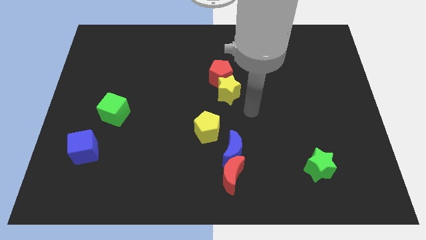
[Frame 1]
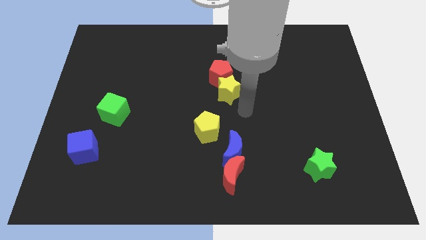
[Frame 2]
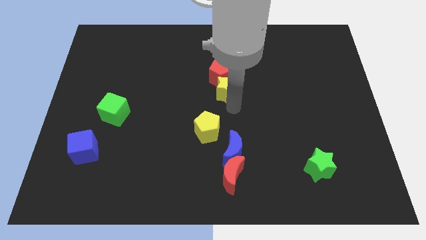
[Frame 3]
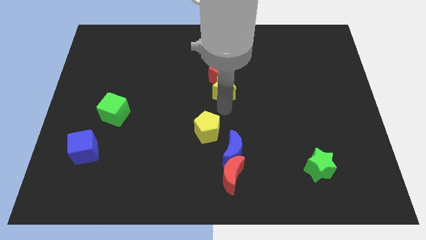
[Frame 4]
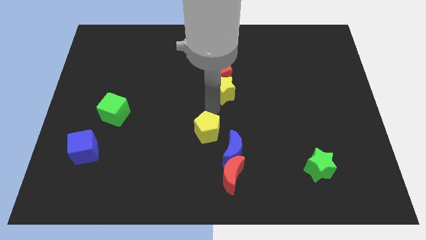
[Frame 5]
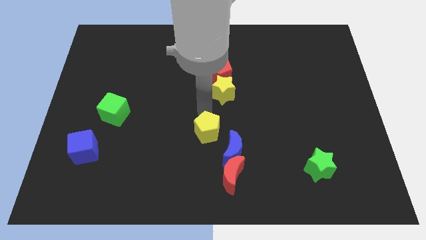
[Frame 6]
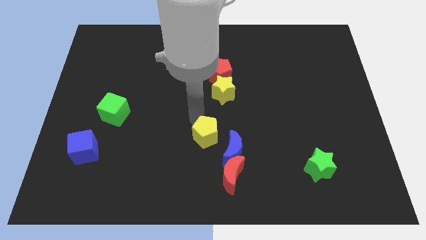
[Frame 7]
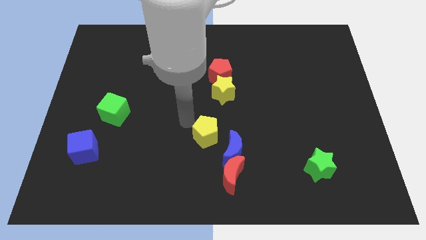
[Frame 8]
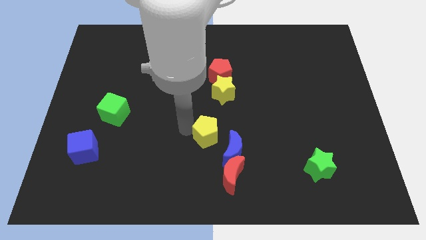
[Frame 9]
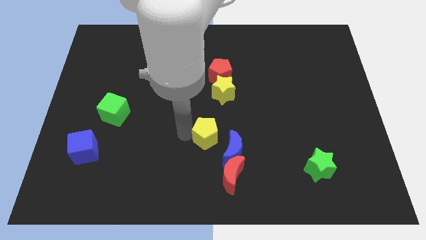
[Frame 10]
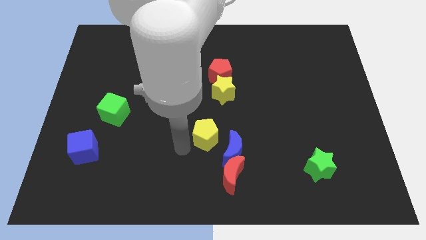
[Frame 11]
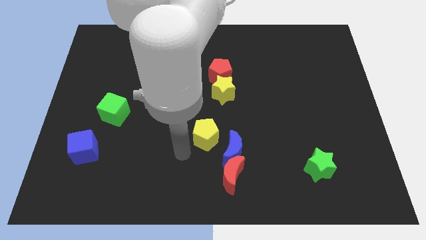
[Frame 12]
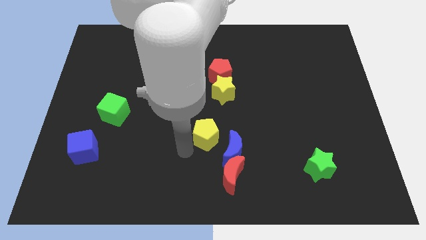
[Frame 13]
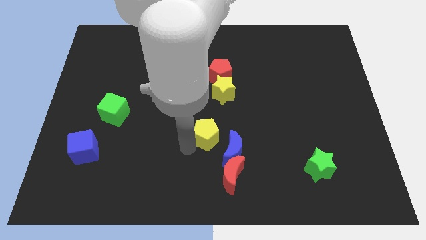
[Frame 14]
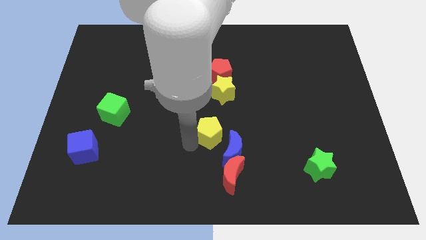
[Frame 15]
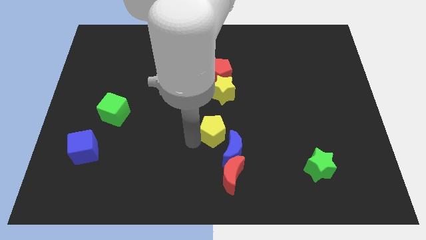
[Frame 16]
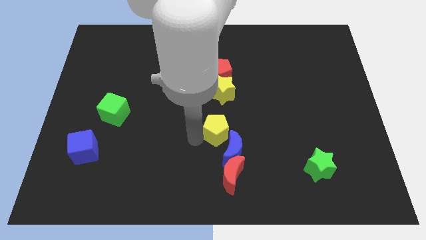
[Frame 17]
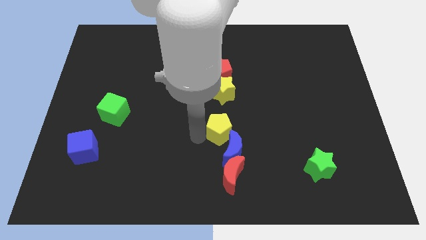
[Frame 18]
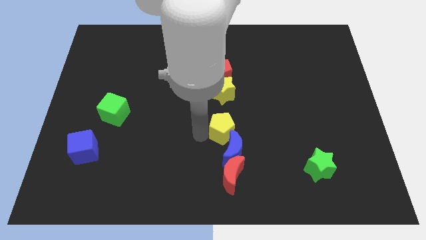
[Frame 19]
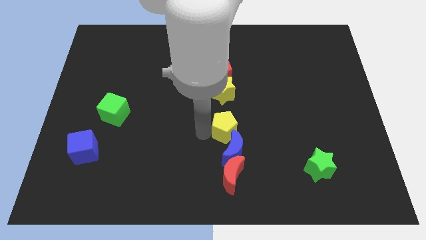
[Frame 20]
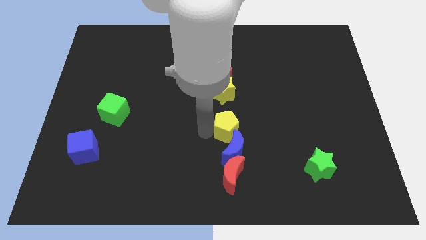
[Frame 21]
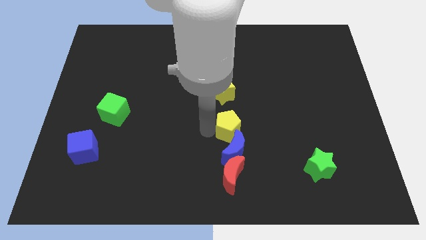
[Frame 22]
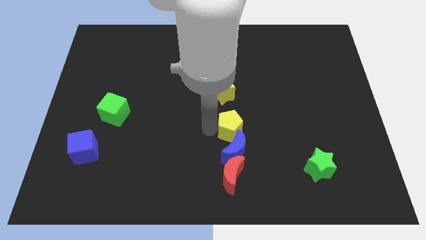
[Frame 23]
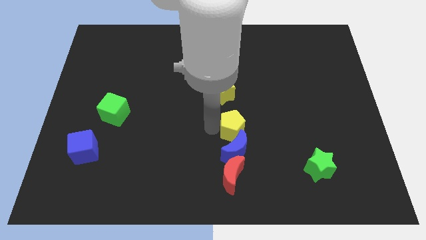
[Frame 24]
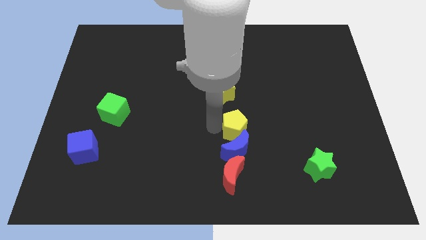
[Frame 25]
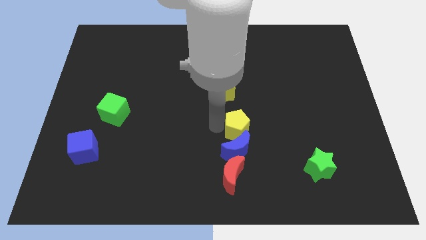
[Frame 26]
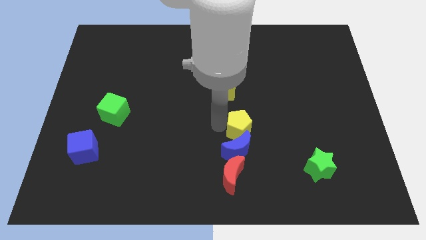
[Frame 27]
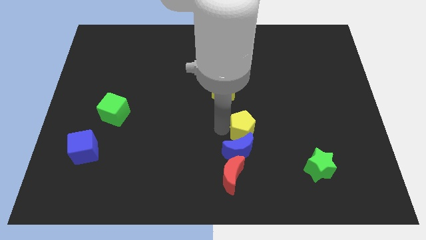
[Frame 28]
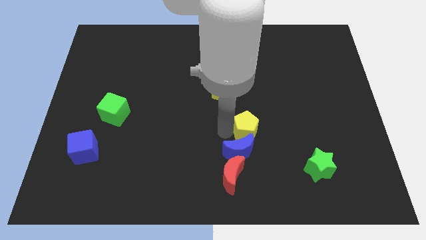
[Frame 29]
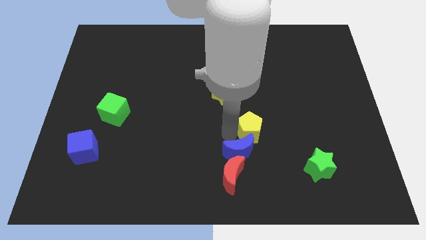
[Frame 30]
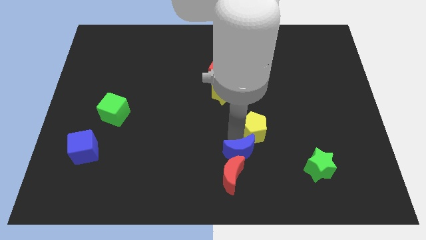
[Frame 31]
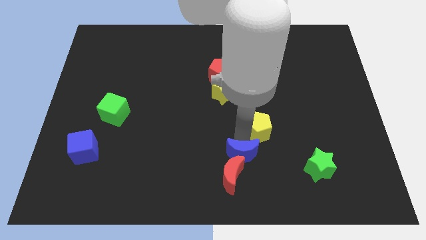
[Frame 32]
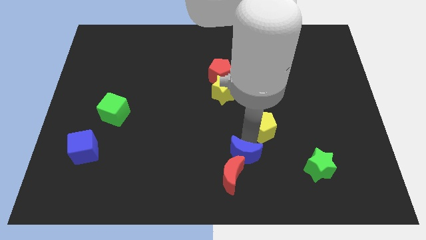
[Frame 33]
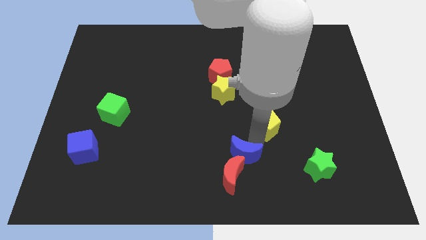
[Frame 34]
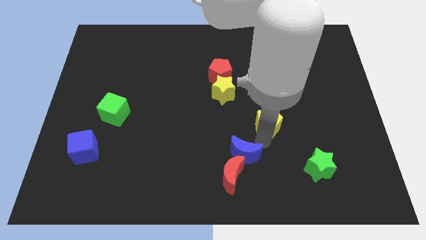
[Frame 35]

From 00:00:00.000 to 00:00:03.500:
push the yellow pentagon up and right diagonally somewhat

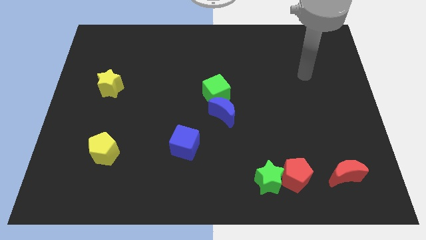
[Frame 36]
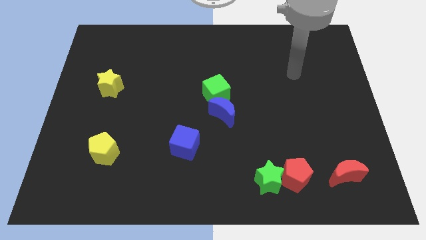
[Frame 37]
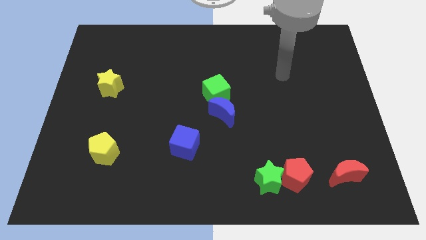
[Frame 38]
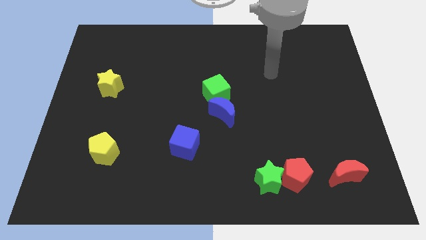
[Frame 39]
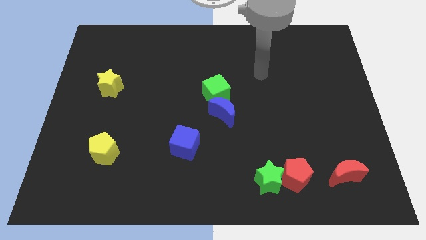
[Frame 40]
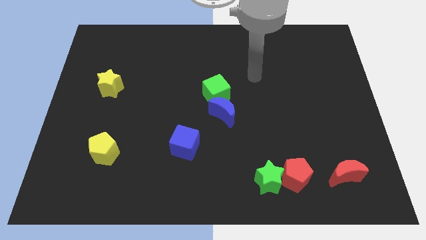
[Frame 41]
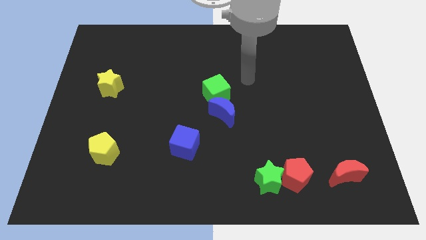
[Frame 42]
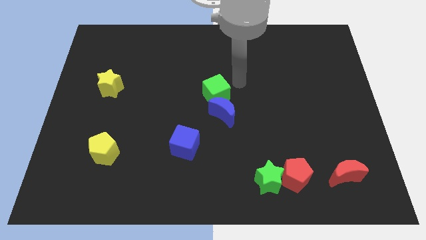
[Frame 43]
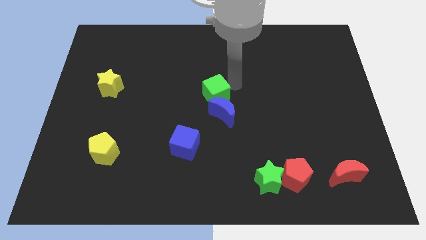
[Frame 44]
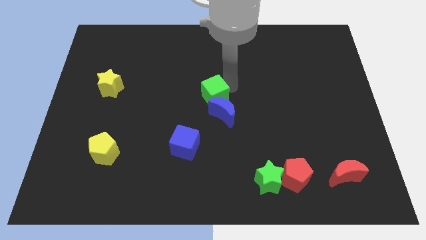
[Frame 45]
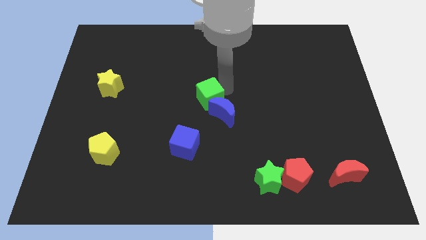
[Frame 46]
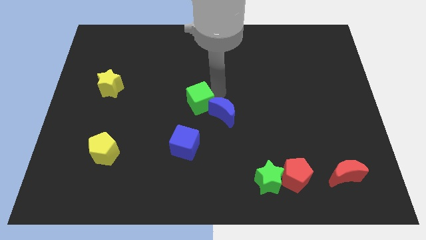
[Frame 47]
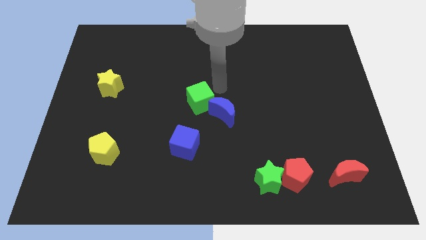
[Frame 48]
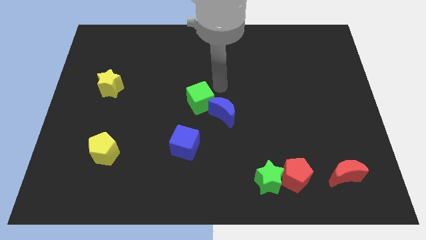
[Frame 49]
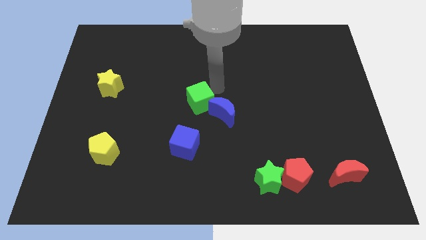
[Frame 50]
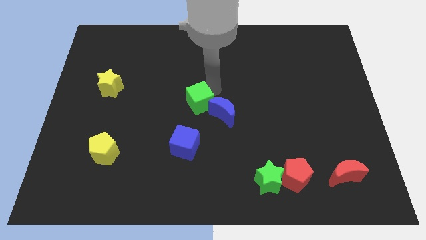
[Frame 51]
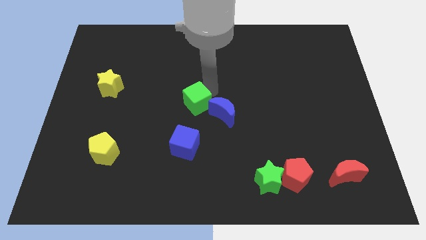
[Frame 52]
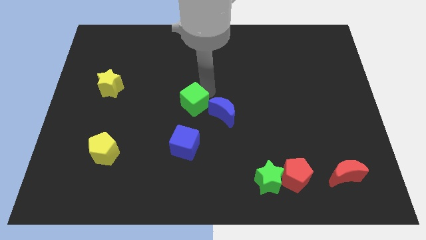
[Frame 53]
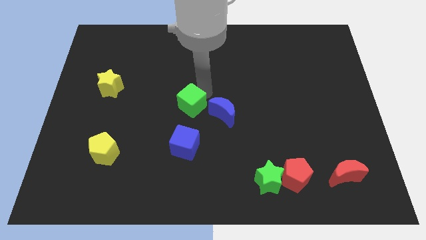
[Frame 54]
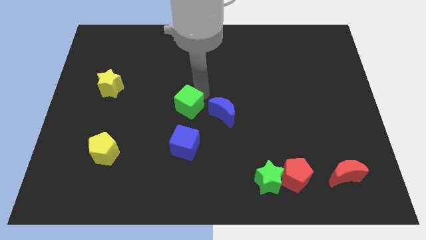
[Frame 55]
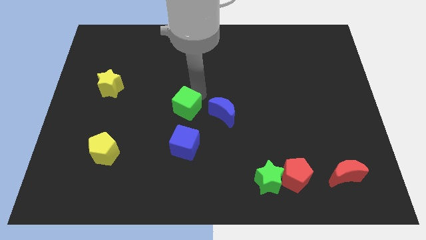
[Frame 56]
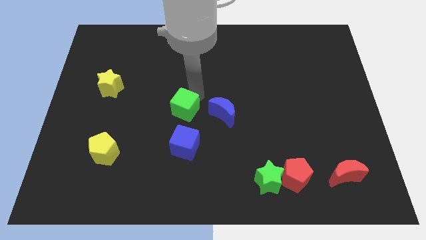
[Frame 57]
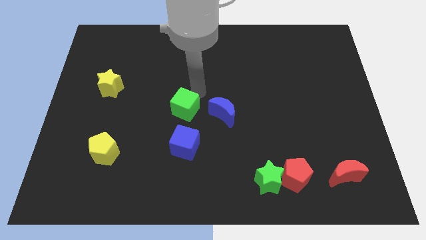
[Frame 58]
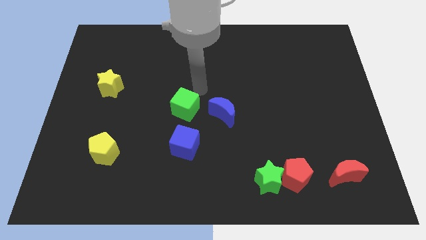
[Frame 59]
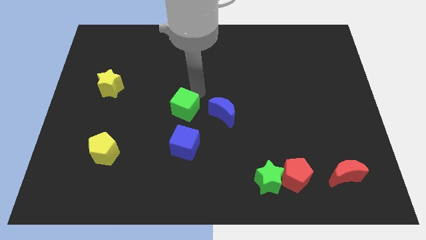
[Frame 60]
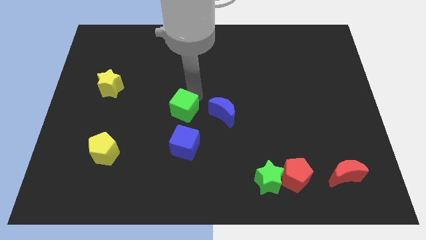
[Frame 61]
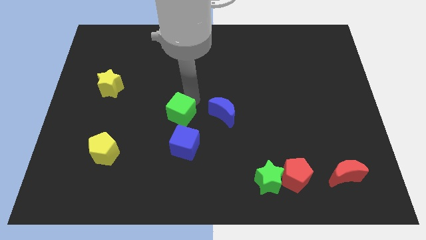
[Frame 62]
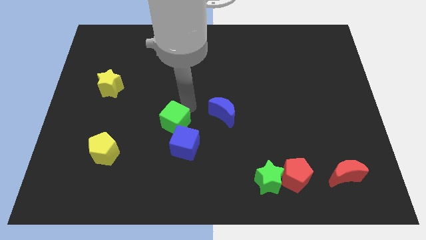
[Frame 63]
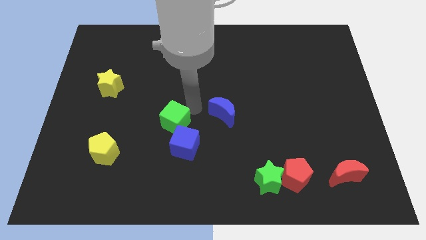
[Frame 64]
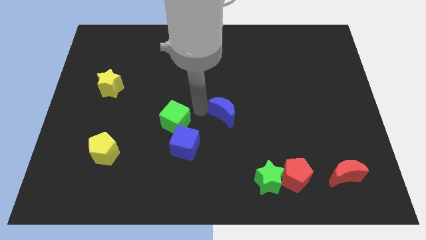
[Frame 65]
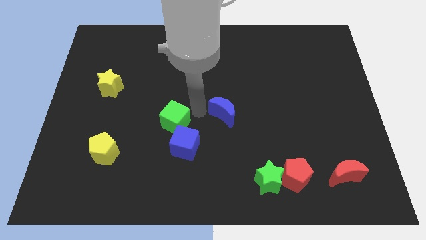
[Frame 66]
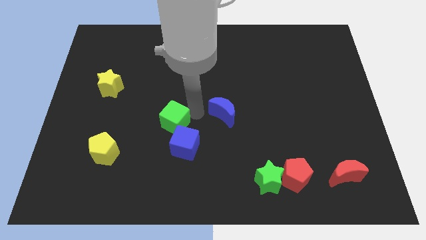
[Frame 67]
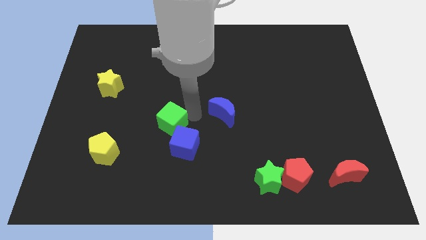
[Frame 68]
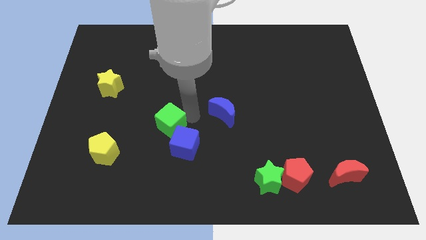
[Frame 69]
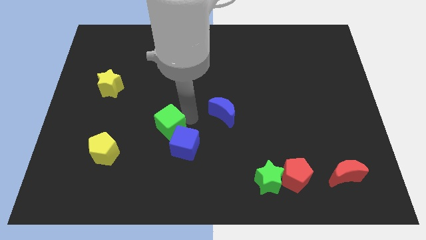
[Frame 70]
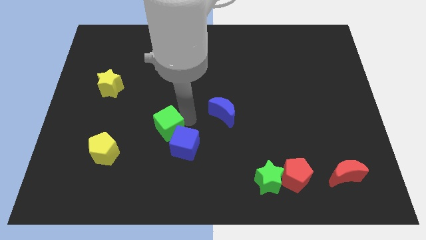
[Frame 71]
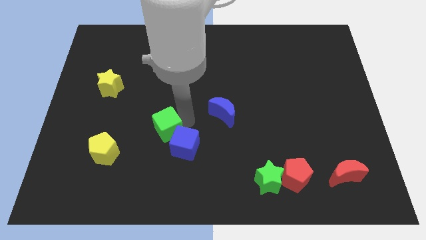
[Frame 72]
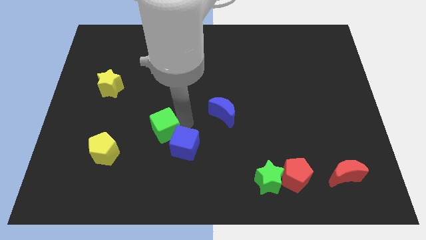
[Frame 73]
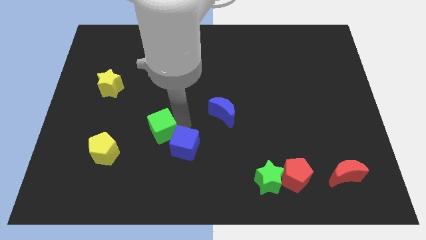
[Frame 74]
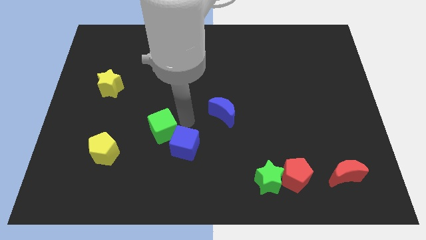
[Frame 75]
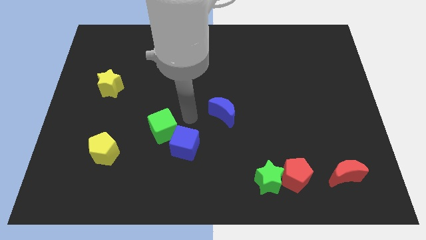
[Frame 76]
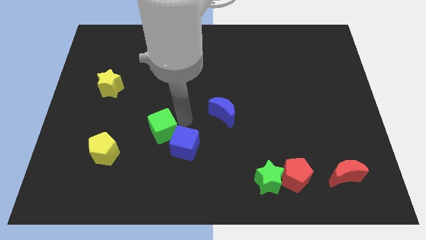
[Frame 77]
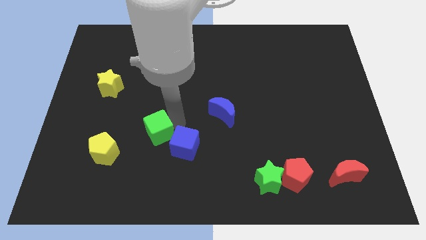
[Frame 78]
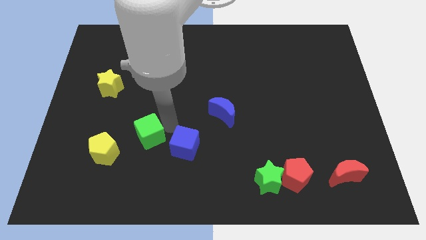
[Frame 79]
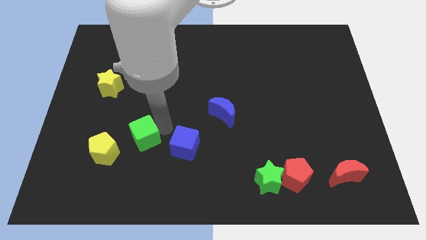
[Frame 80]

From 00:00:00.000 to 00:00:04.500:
move the green cube down and left
